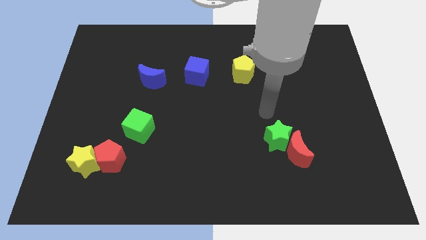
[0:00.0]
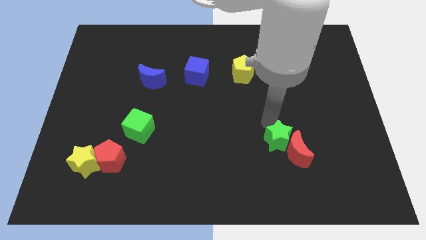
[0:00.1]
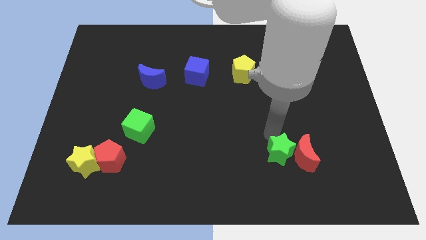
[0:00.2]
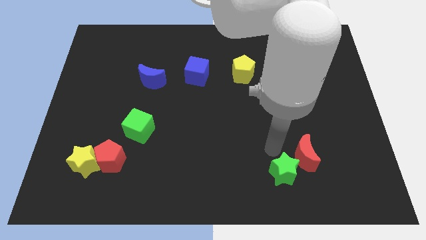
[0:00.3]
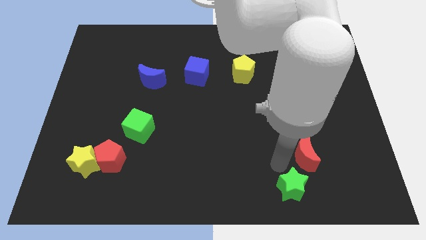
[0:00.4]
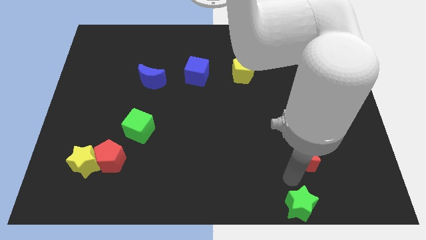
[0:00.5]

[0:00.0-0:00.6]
separate the red moon from the green star

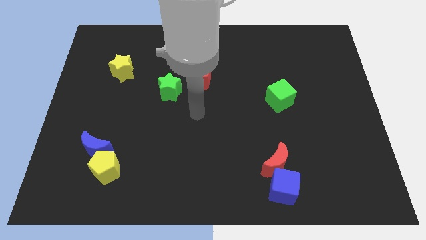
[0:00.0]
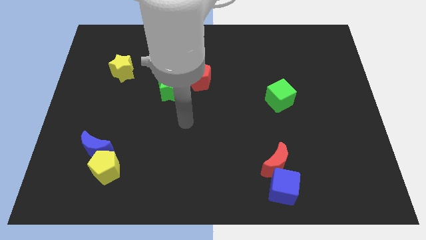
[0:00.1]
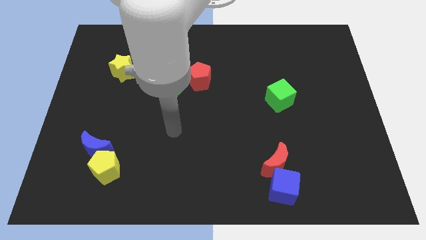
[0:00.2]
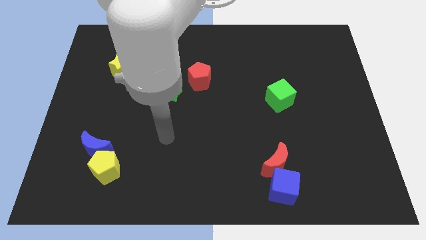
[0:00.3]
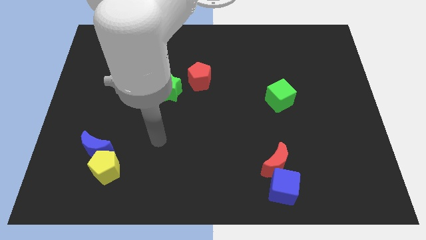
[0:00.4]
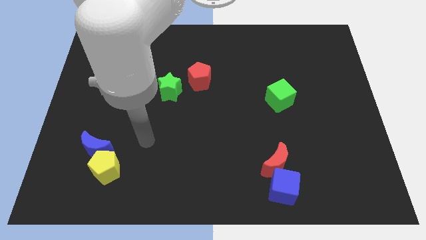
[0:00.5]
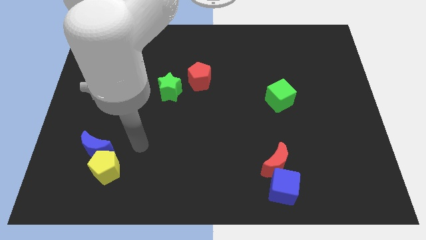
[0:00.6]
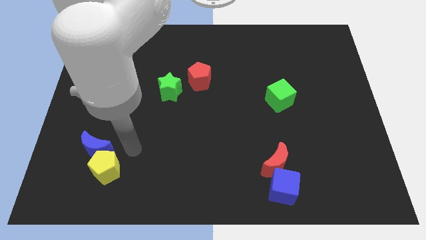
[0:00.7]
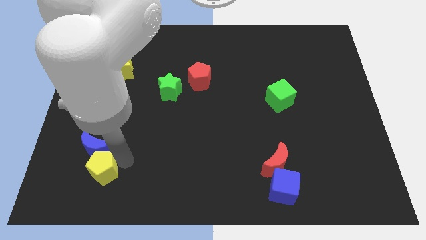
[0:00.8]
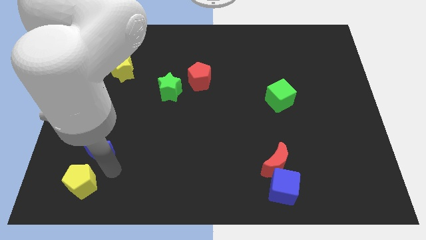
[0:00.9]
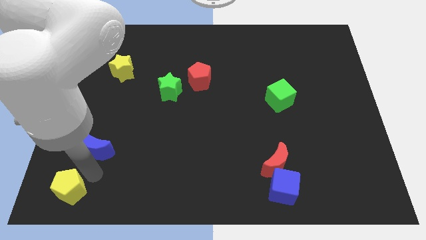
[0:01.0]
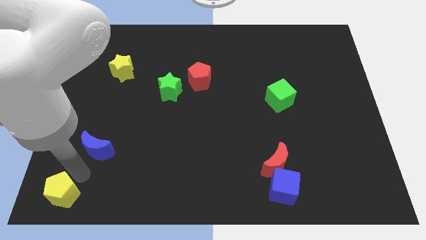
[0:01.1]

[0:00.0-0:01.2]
move the blue moon away from the yellow pentagon

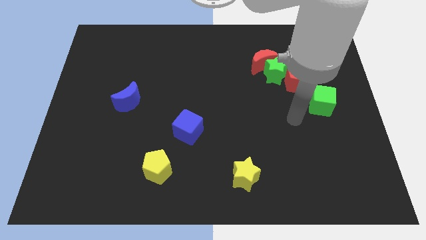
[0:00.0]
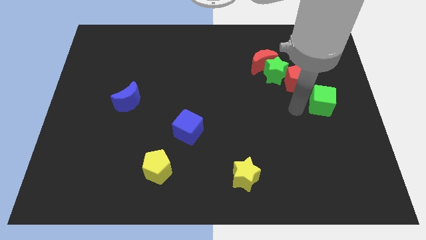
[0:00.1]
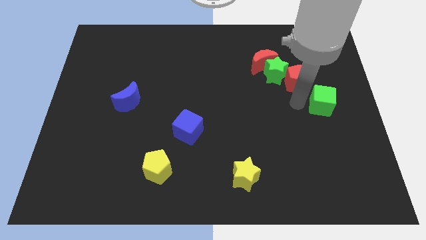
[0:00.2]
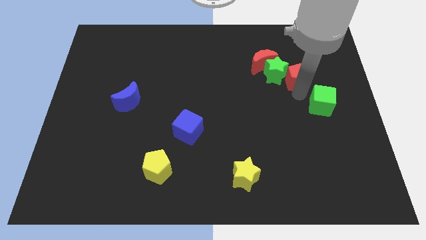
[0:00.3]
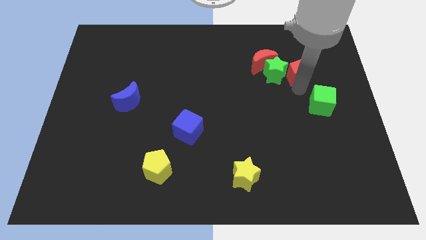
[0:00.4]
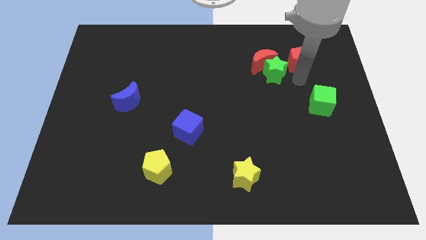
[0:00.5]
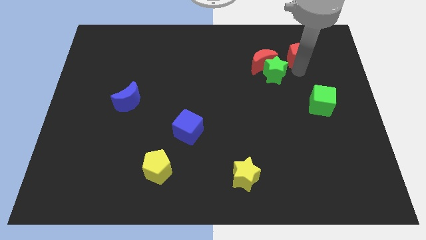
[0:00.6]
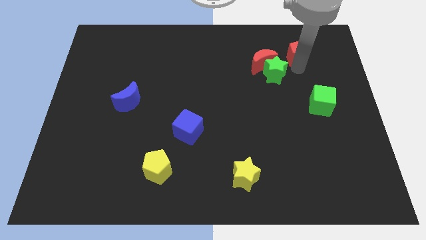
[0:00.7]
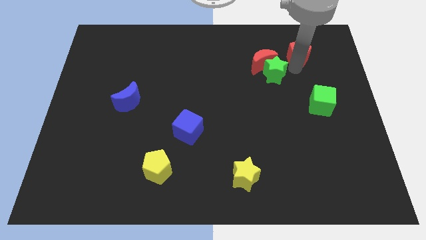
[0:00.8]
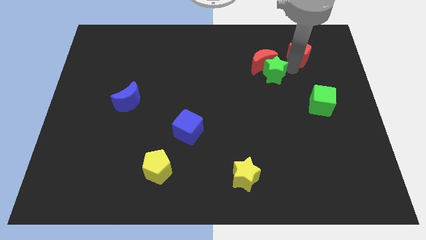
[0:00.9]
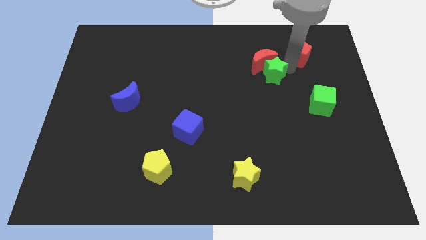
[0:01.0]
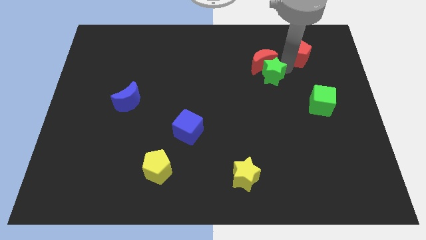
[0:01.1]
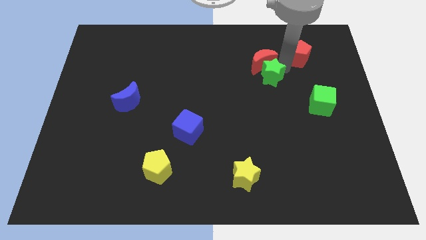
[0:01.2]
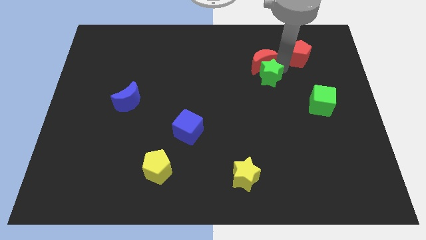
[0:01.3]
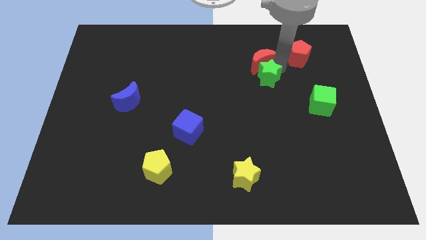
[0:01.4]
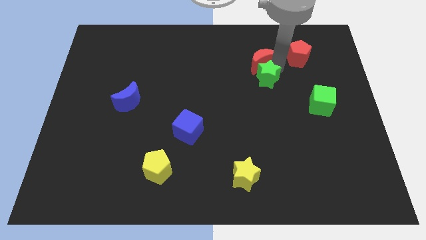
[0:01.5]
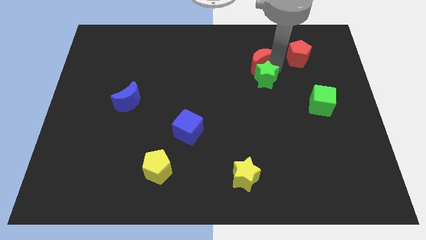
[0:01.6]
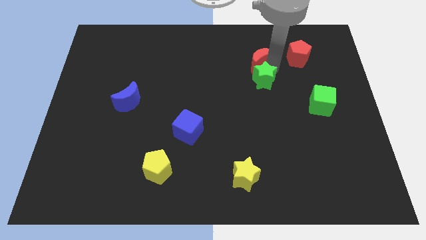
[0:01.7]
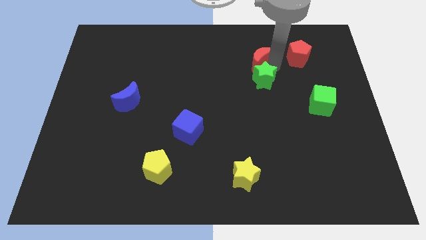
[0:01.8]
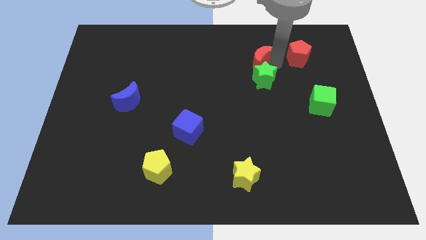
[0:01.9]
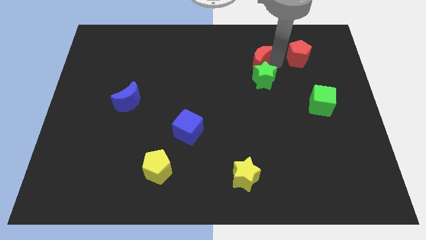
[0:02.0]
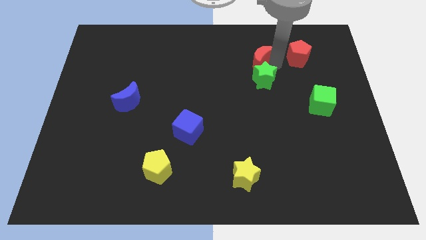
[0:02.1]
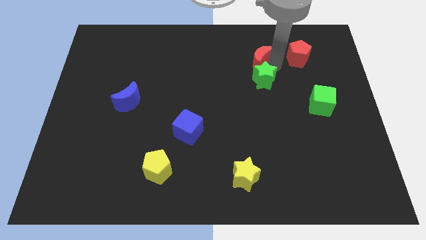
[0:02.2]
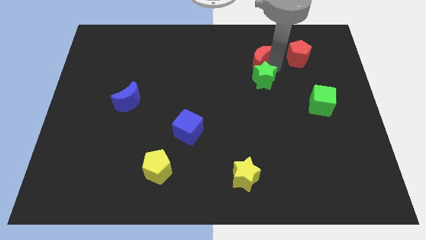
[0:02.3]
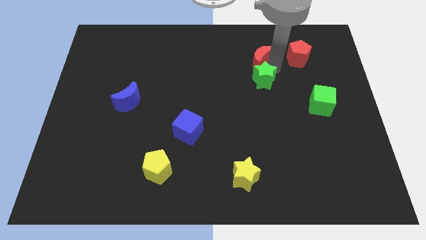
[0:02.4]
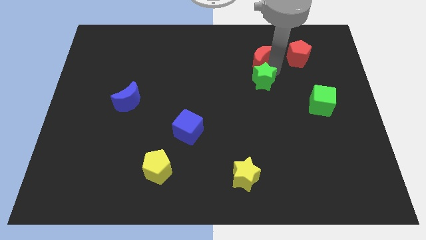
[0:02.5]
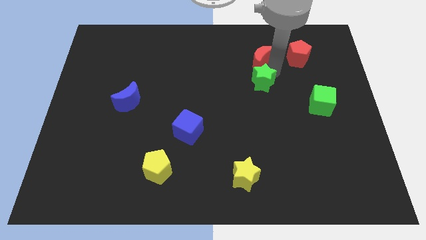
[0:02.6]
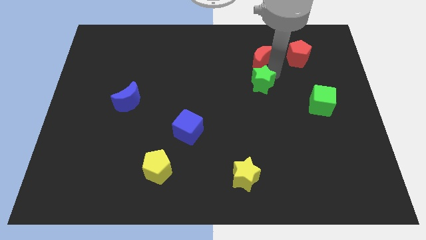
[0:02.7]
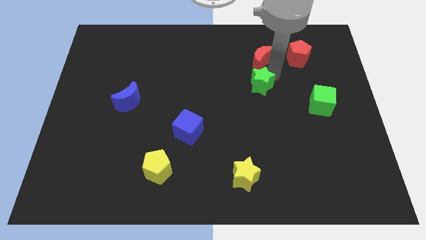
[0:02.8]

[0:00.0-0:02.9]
pull the green star apart from the red moon and red pentagon

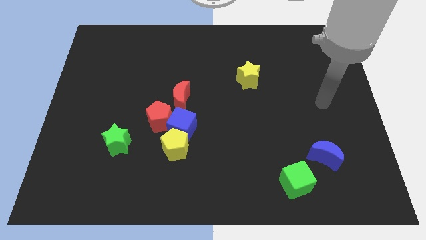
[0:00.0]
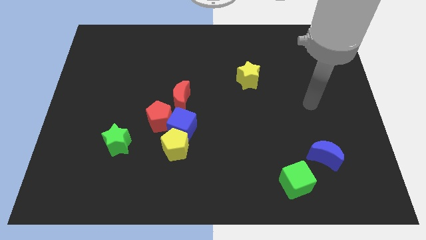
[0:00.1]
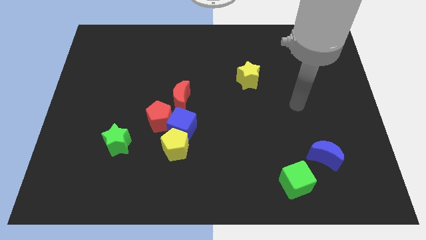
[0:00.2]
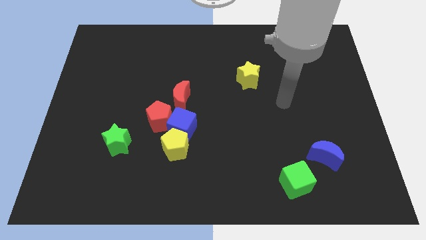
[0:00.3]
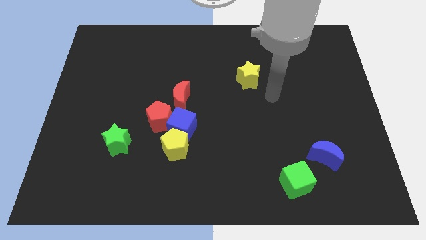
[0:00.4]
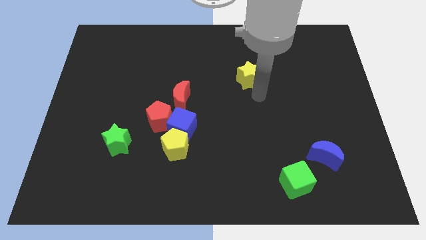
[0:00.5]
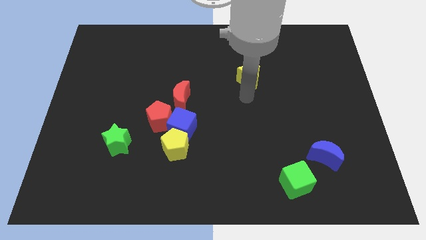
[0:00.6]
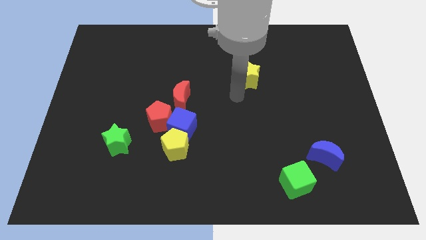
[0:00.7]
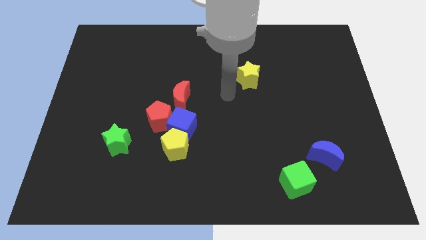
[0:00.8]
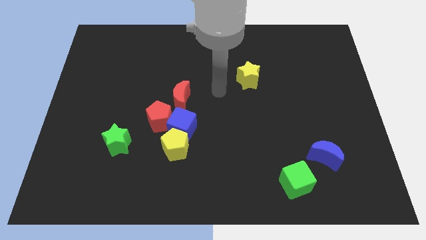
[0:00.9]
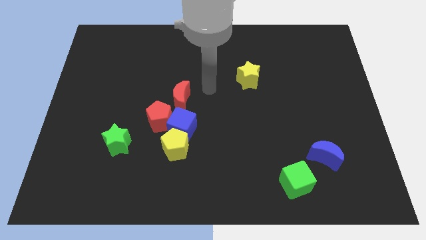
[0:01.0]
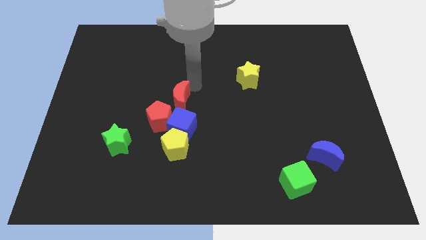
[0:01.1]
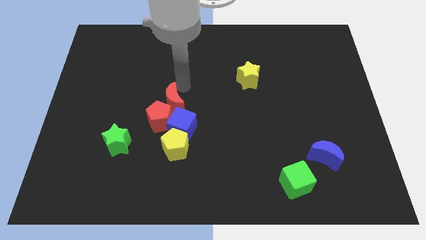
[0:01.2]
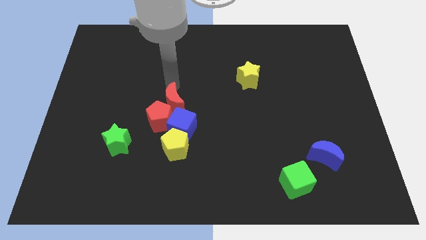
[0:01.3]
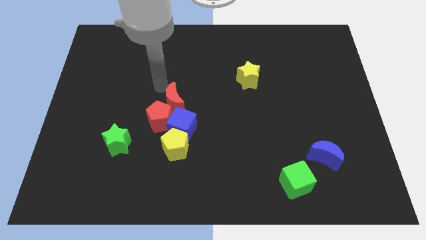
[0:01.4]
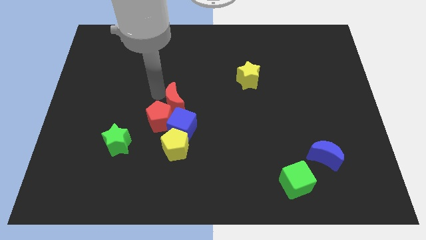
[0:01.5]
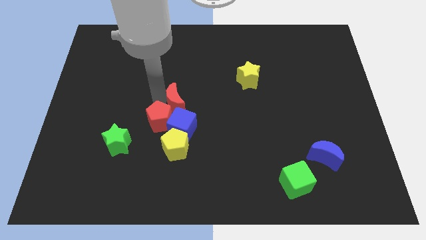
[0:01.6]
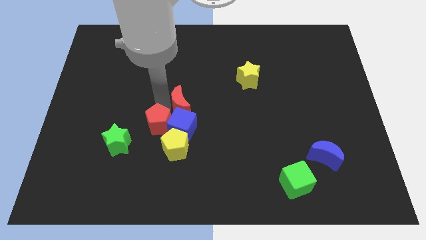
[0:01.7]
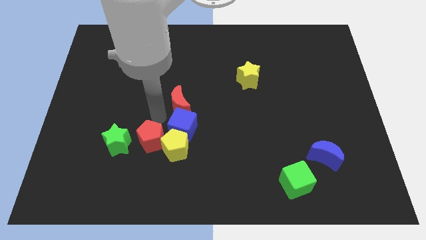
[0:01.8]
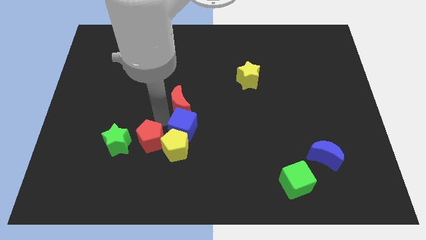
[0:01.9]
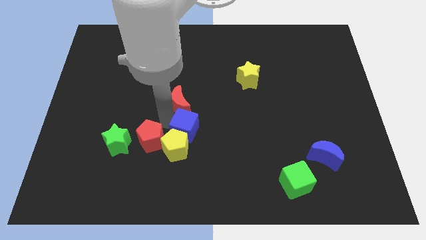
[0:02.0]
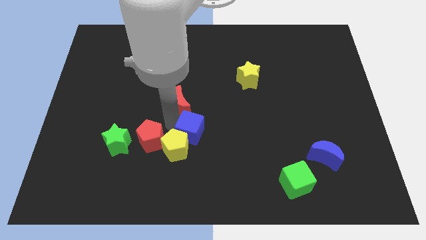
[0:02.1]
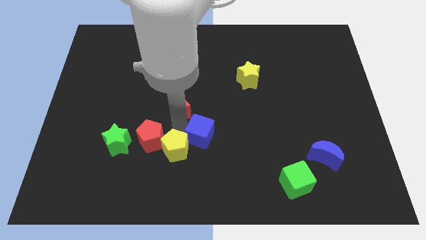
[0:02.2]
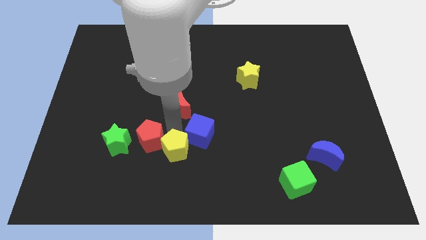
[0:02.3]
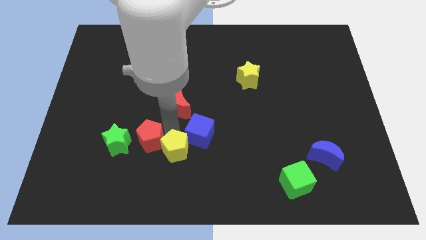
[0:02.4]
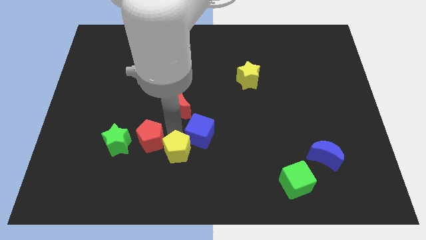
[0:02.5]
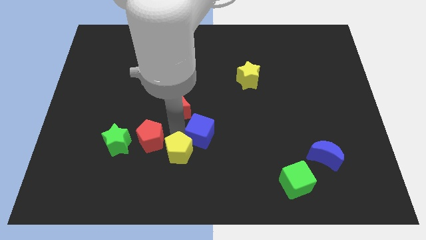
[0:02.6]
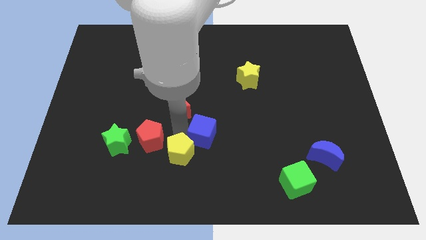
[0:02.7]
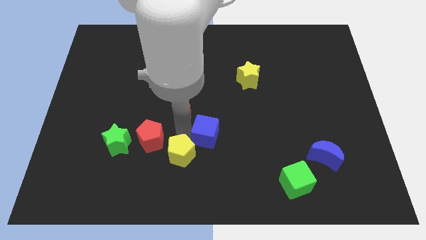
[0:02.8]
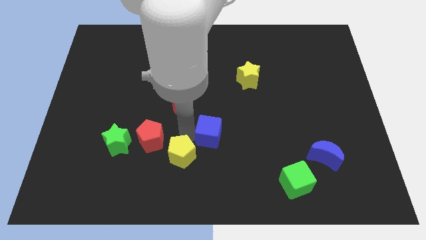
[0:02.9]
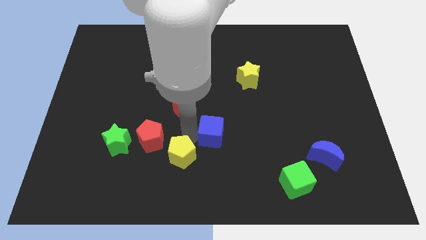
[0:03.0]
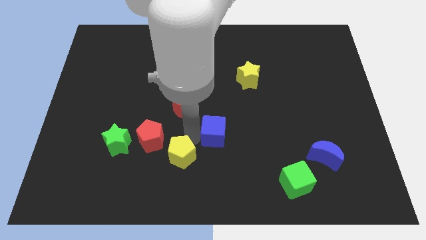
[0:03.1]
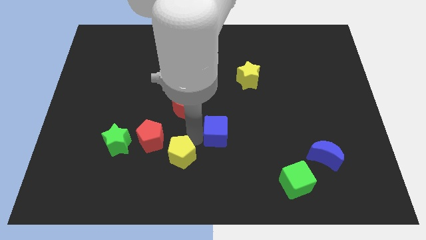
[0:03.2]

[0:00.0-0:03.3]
pull the blue cube apart from the group of blocks

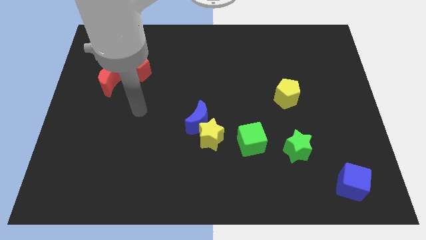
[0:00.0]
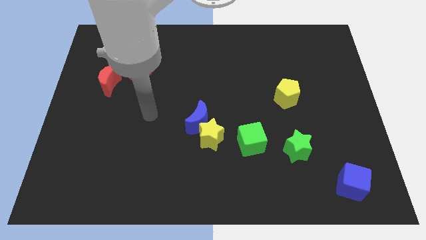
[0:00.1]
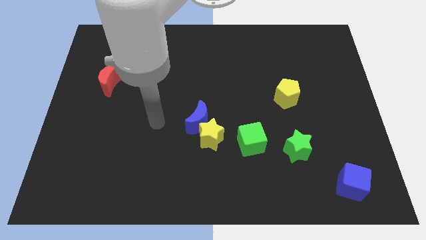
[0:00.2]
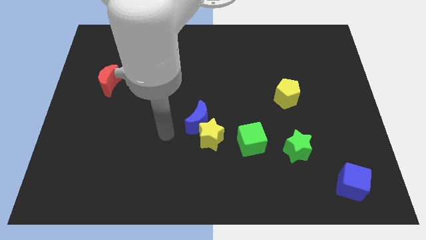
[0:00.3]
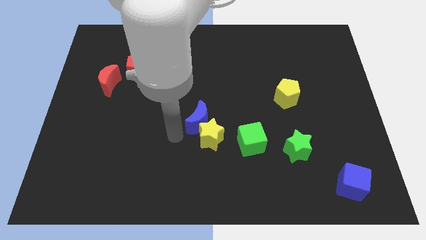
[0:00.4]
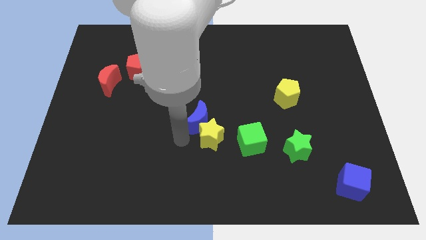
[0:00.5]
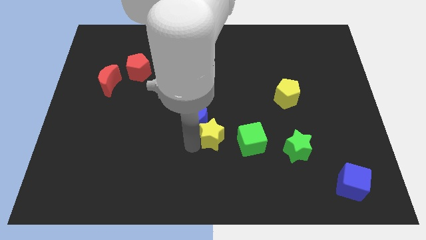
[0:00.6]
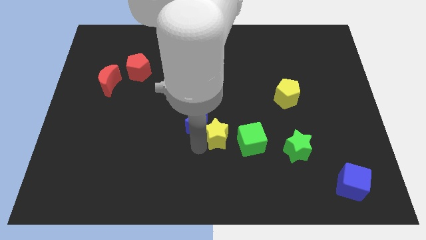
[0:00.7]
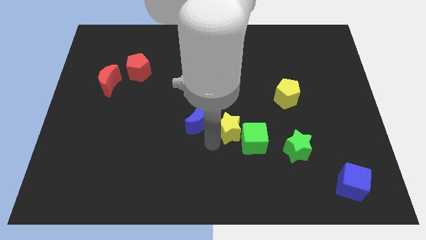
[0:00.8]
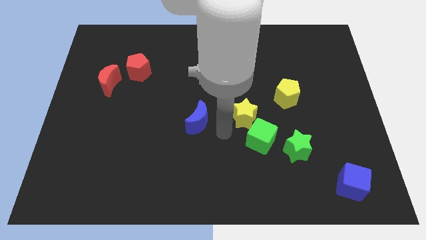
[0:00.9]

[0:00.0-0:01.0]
separate the blue moon from the yellow star

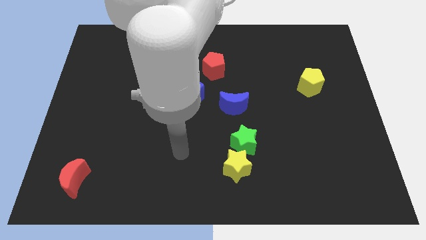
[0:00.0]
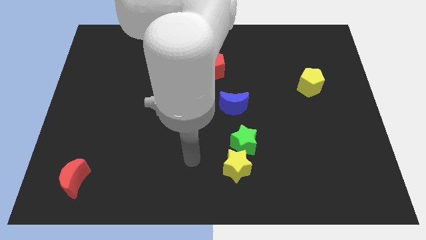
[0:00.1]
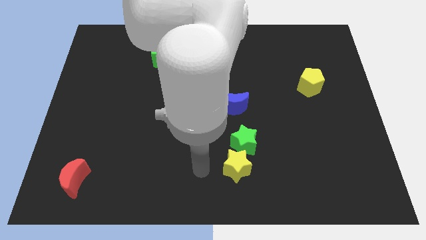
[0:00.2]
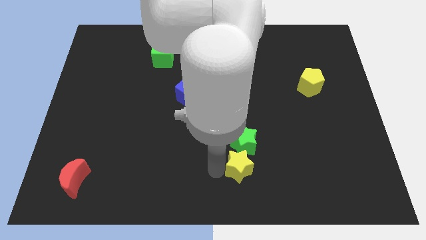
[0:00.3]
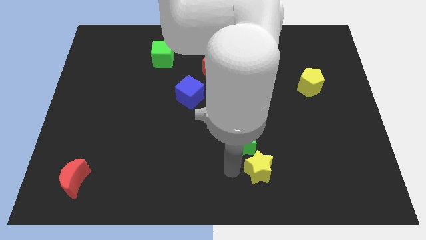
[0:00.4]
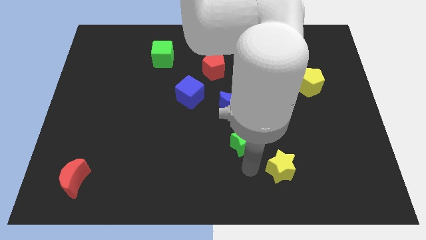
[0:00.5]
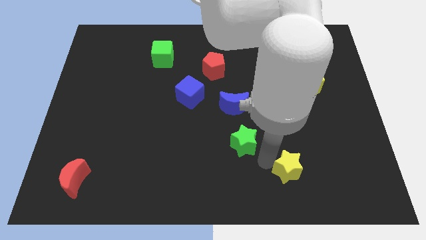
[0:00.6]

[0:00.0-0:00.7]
separate the green star from the yellow star
